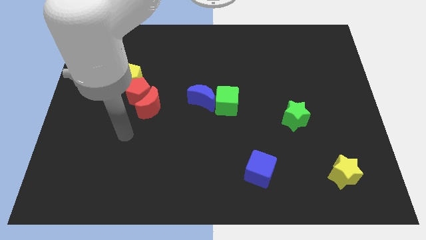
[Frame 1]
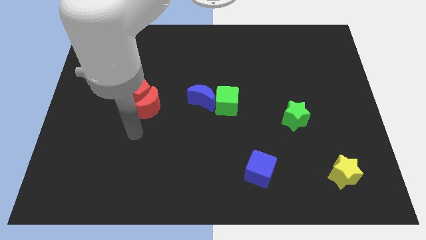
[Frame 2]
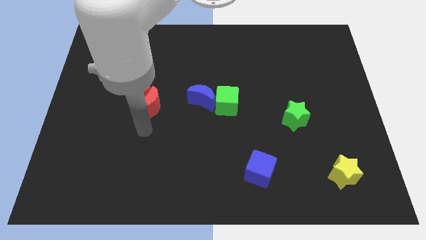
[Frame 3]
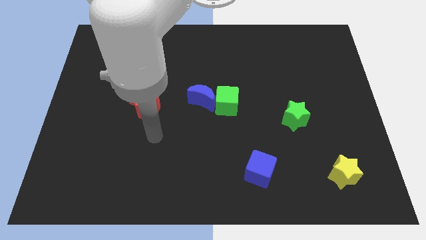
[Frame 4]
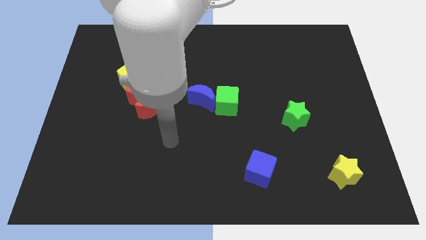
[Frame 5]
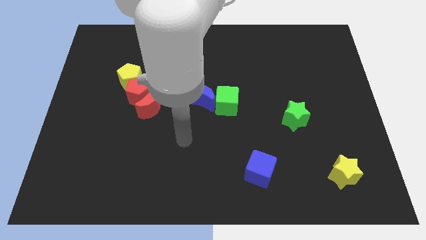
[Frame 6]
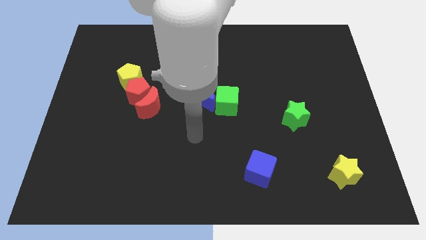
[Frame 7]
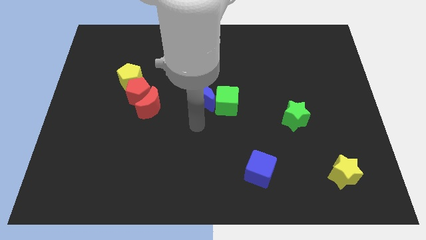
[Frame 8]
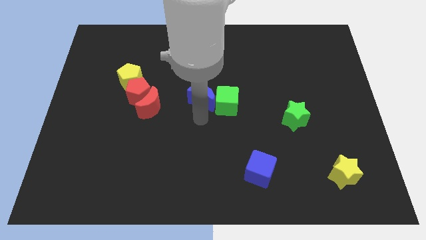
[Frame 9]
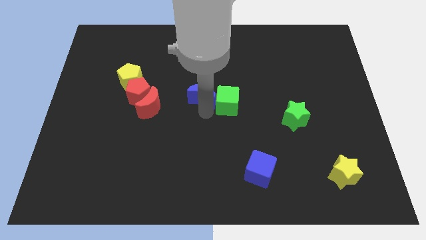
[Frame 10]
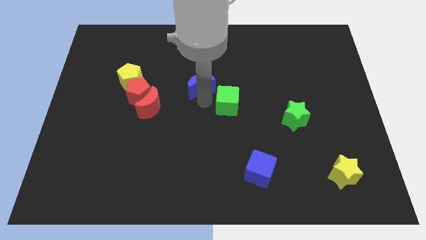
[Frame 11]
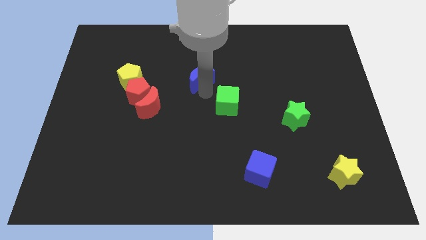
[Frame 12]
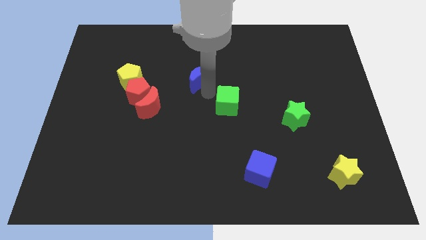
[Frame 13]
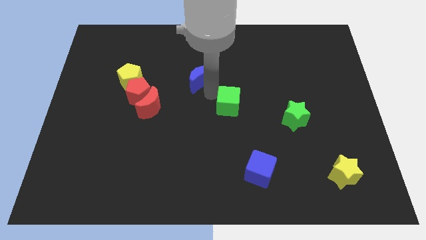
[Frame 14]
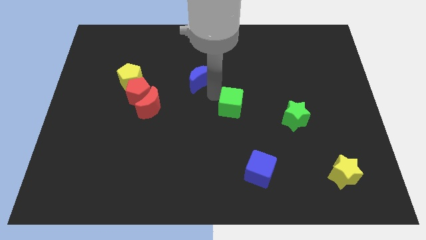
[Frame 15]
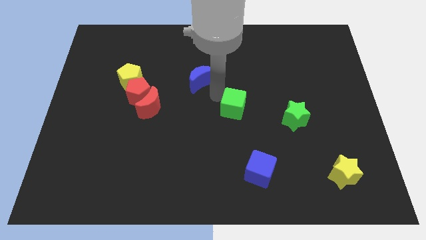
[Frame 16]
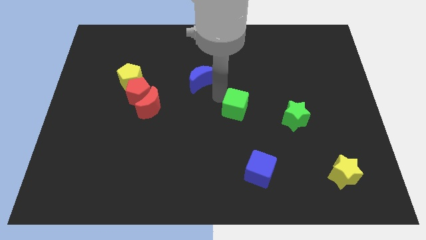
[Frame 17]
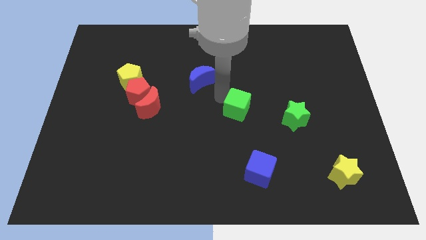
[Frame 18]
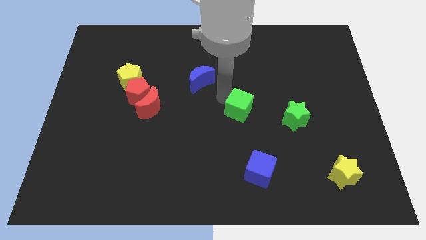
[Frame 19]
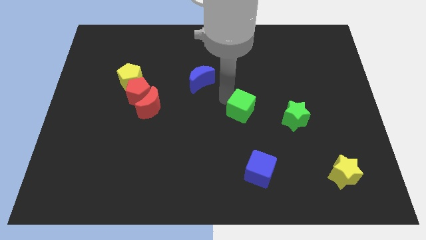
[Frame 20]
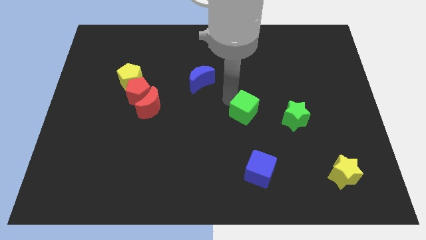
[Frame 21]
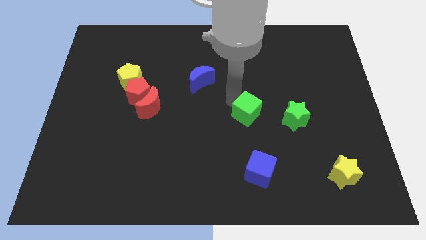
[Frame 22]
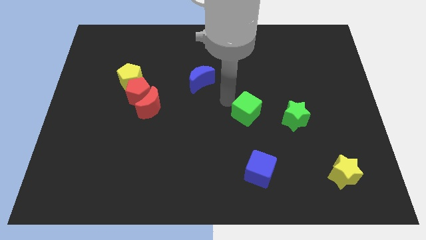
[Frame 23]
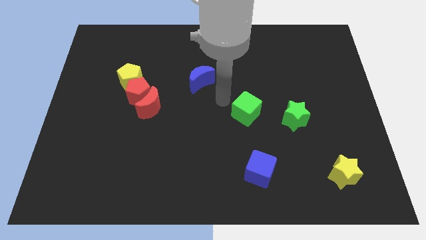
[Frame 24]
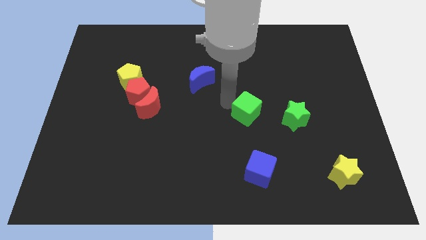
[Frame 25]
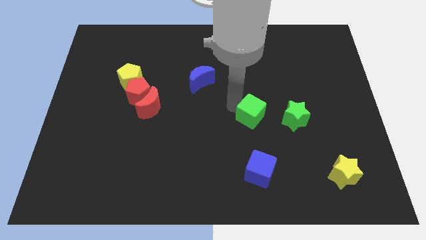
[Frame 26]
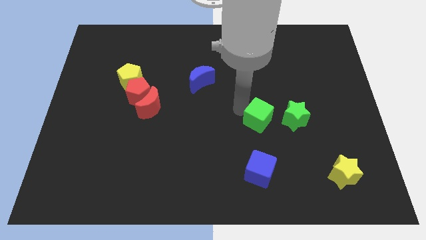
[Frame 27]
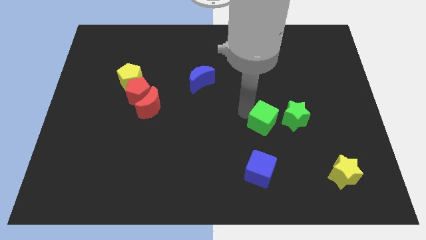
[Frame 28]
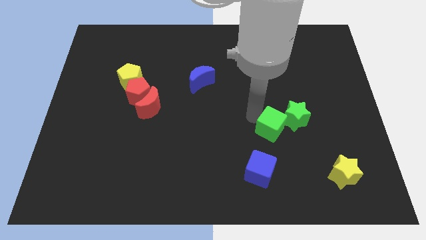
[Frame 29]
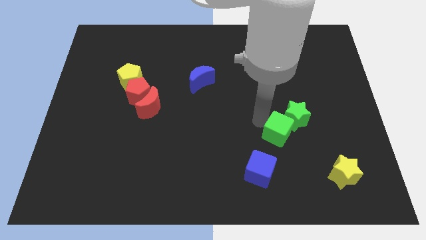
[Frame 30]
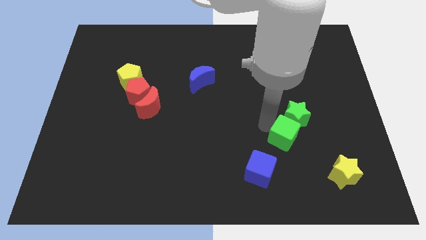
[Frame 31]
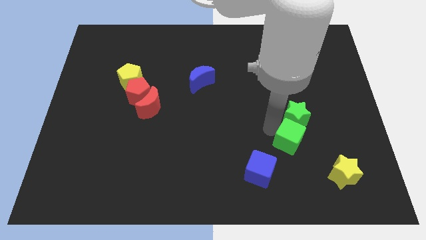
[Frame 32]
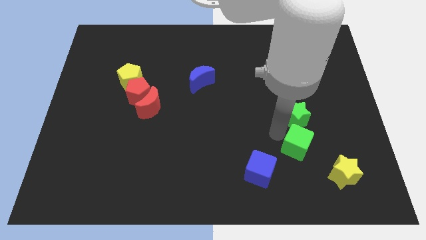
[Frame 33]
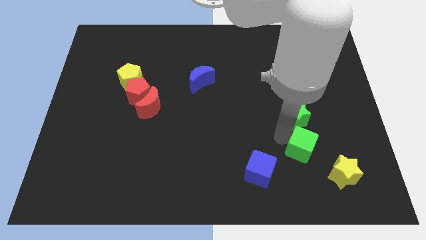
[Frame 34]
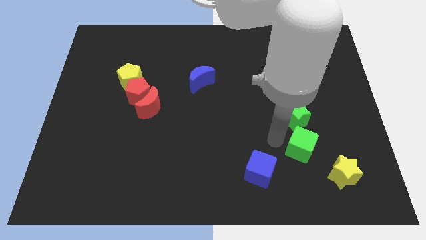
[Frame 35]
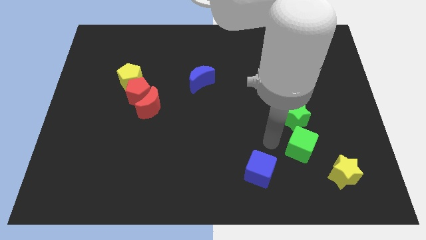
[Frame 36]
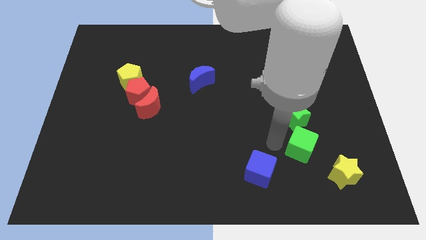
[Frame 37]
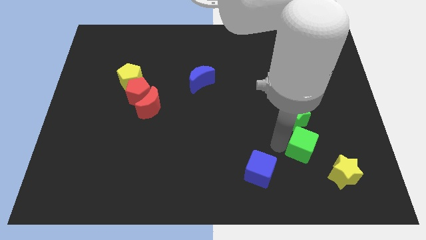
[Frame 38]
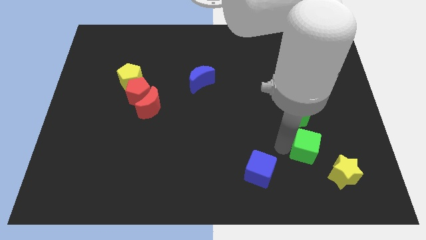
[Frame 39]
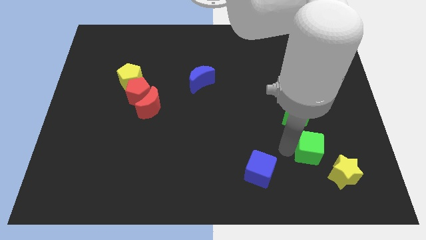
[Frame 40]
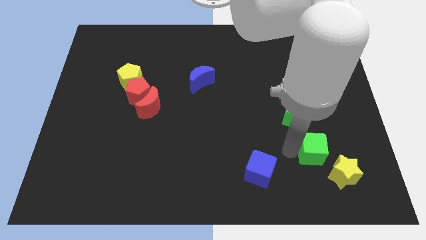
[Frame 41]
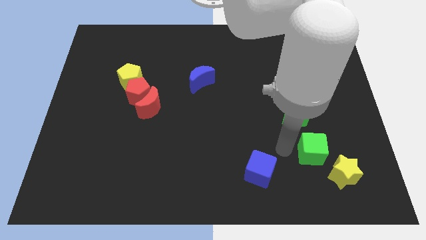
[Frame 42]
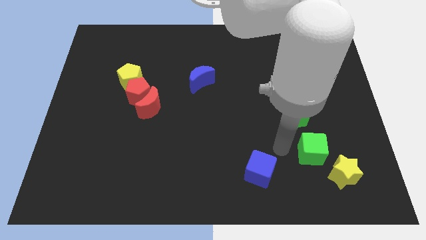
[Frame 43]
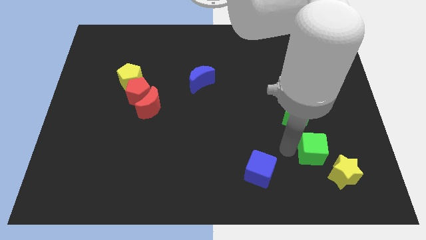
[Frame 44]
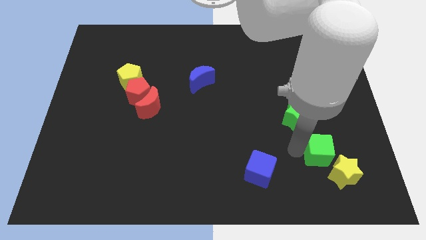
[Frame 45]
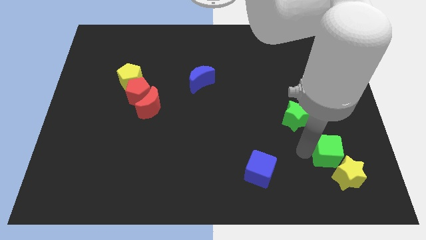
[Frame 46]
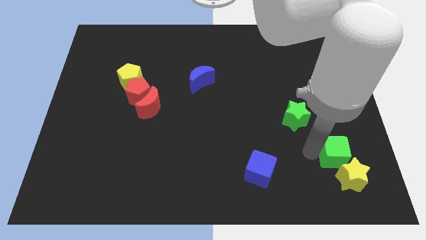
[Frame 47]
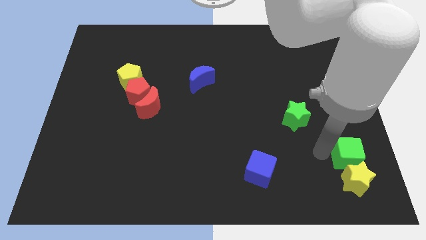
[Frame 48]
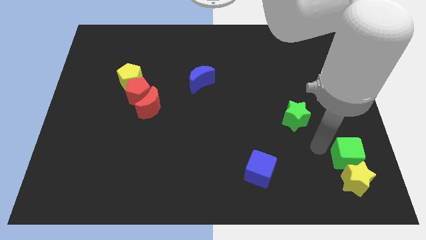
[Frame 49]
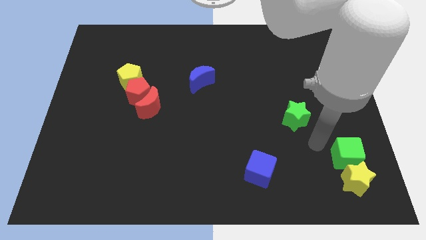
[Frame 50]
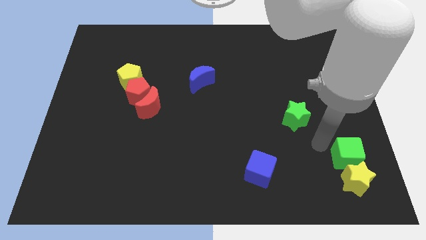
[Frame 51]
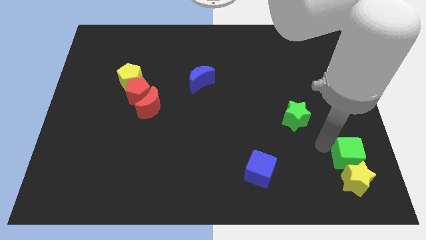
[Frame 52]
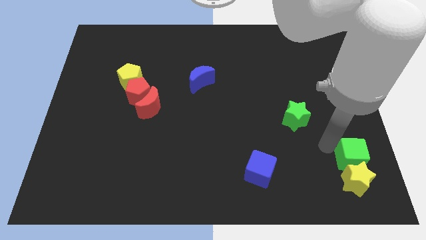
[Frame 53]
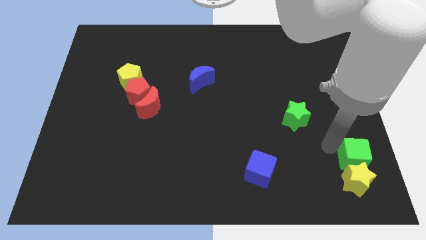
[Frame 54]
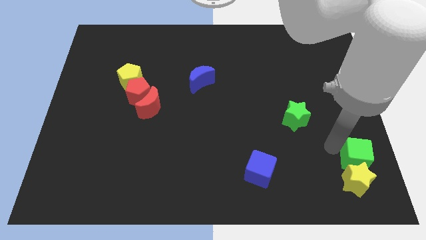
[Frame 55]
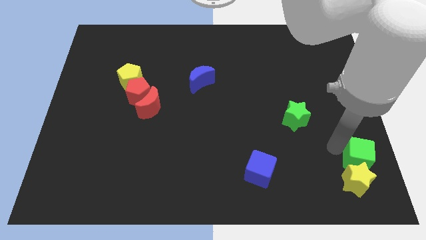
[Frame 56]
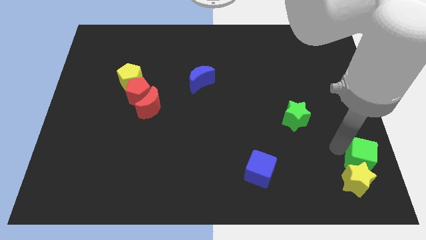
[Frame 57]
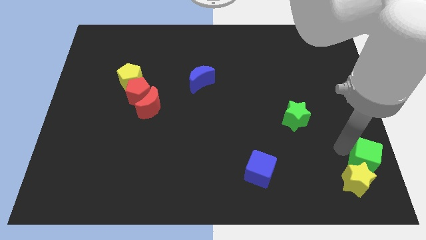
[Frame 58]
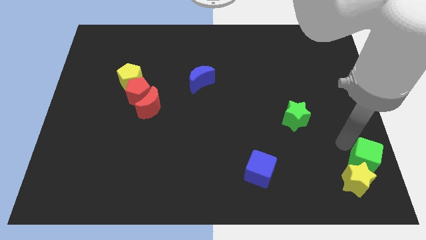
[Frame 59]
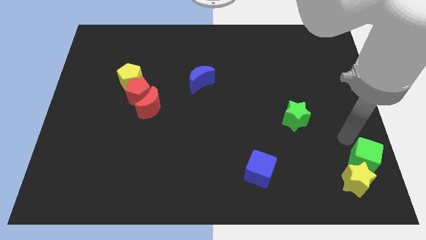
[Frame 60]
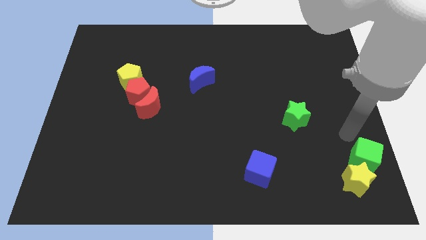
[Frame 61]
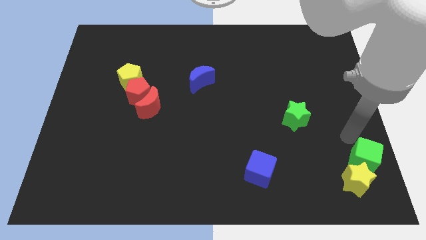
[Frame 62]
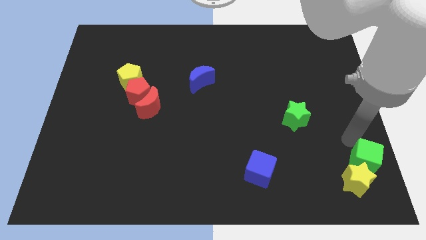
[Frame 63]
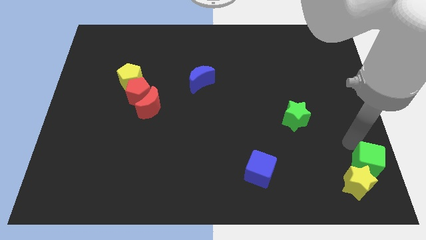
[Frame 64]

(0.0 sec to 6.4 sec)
slide the green cube to the bottom right of the board
